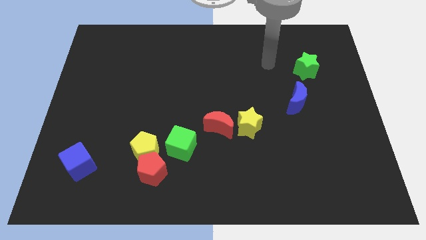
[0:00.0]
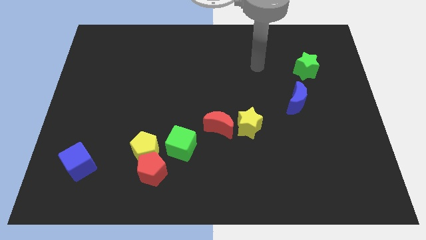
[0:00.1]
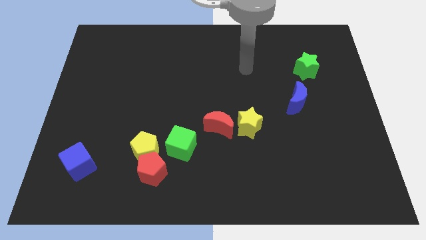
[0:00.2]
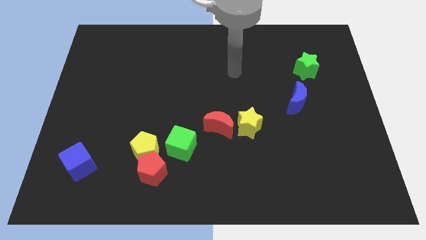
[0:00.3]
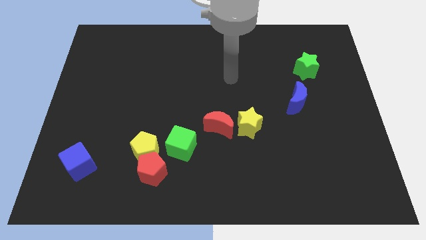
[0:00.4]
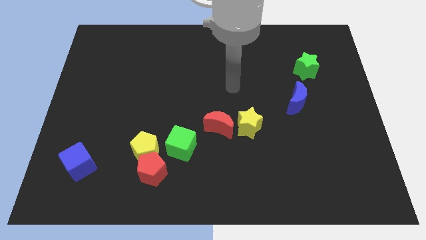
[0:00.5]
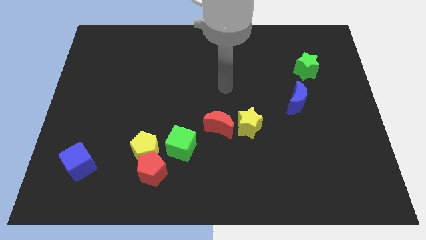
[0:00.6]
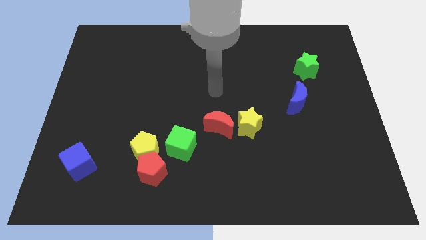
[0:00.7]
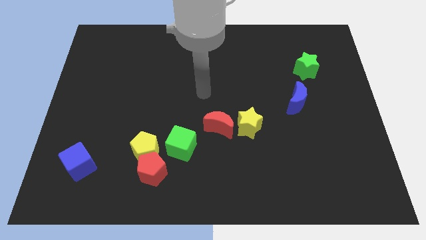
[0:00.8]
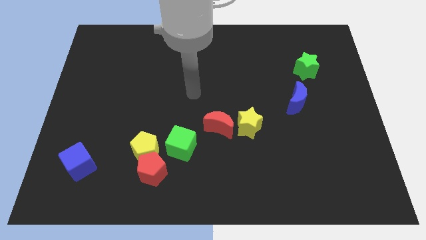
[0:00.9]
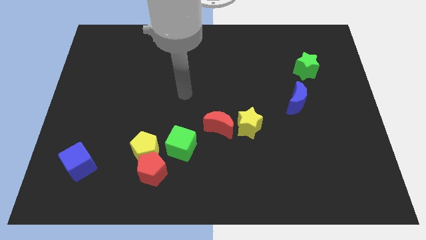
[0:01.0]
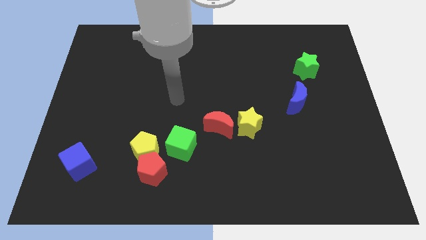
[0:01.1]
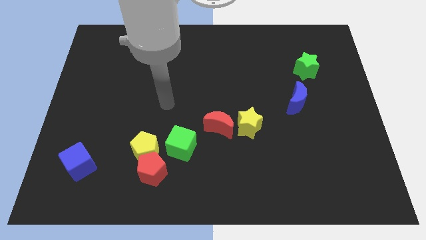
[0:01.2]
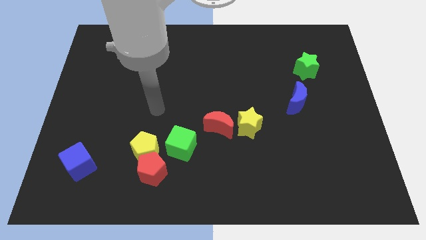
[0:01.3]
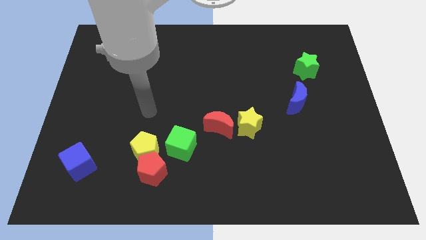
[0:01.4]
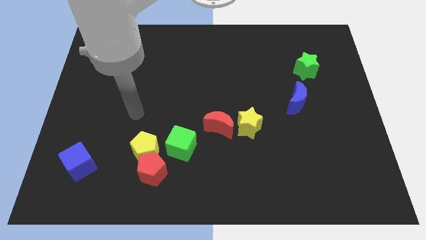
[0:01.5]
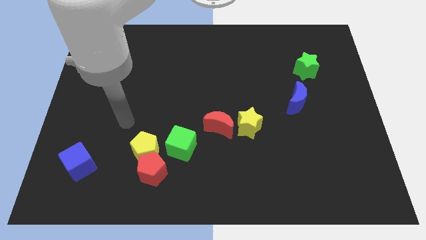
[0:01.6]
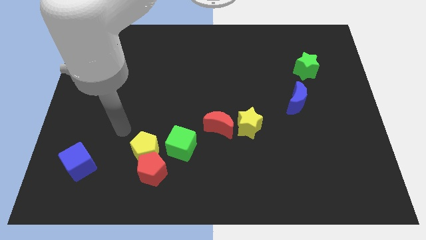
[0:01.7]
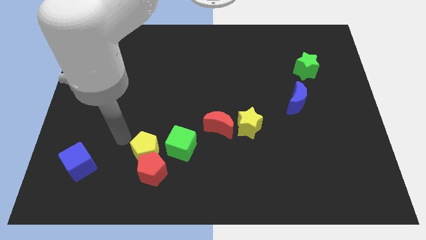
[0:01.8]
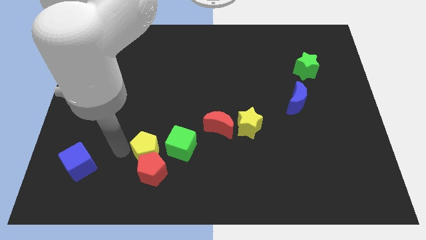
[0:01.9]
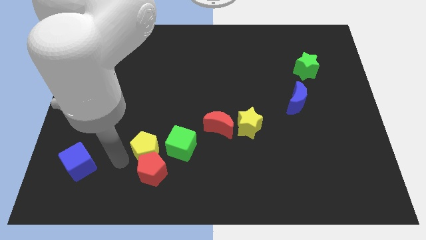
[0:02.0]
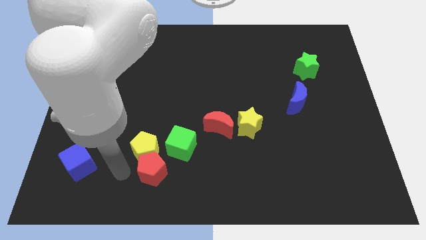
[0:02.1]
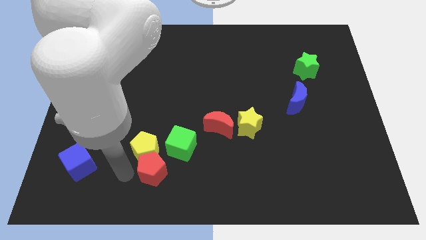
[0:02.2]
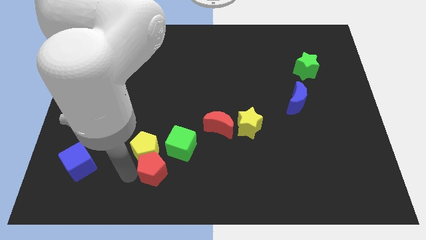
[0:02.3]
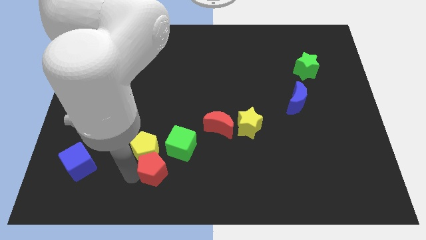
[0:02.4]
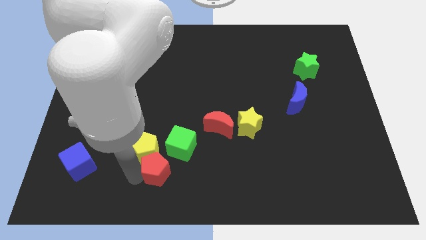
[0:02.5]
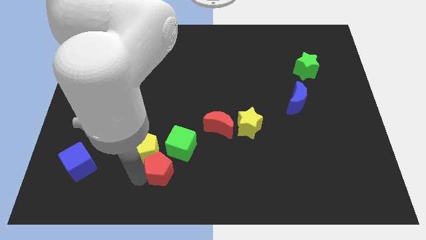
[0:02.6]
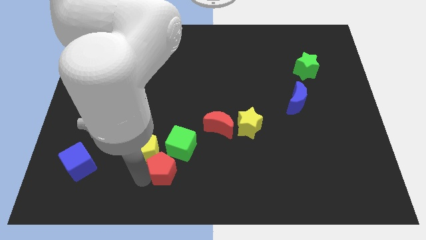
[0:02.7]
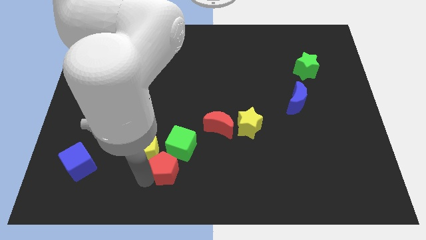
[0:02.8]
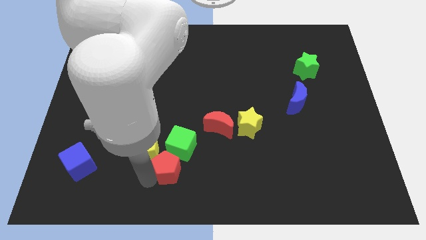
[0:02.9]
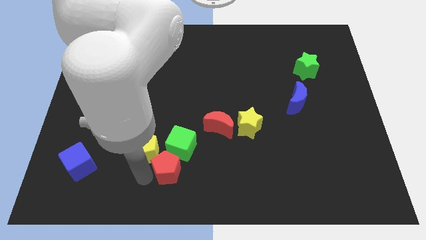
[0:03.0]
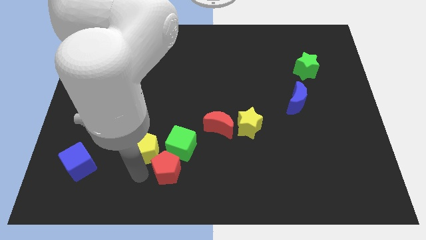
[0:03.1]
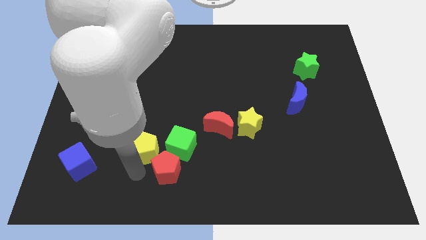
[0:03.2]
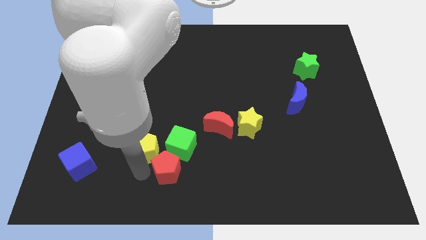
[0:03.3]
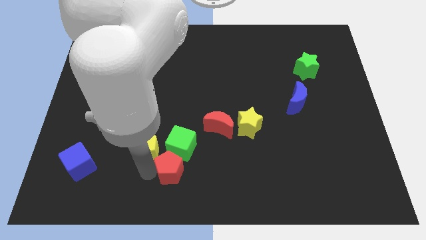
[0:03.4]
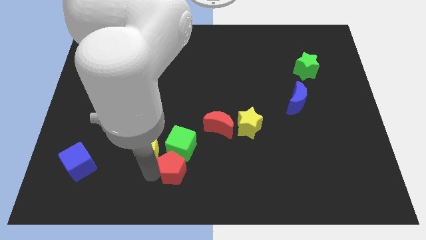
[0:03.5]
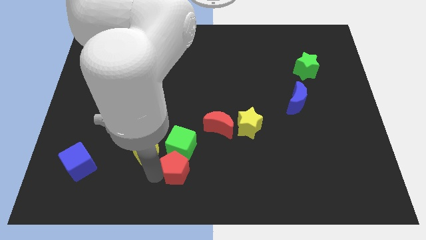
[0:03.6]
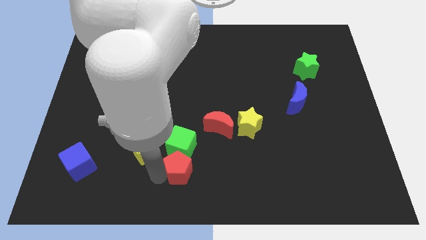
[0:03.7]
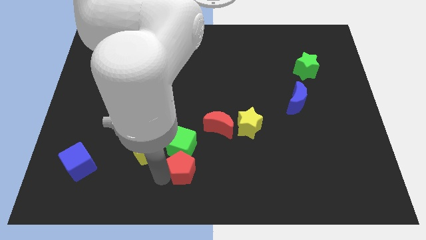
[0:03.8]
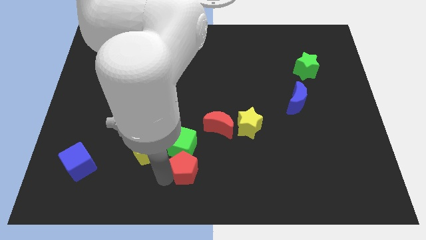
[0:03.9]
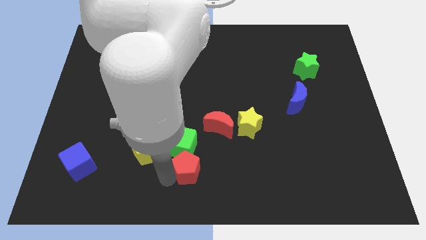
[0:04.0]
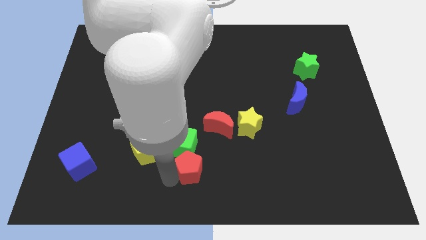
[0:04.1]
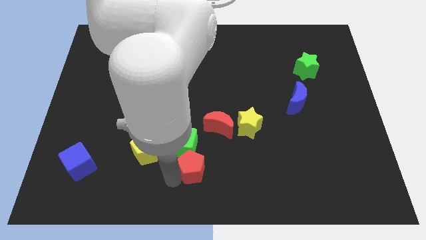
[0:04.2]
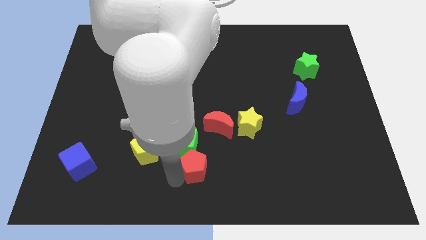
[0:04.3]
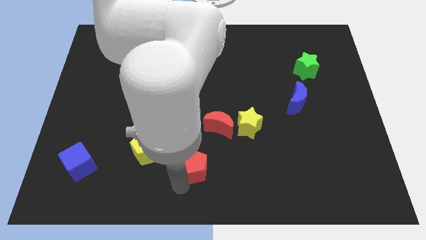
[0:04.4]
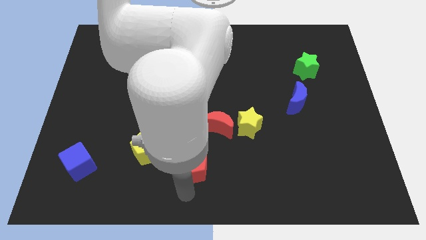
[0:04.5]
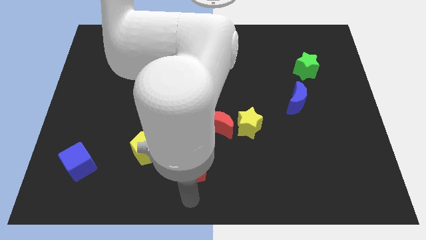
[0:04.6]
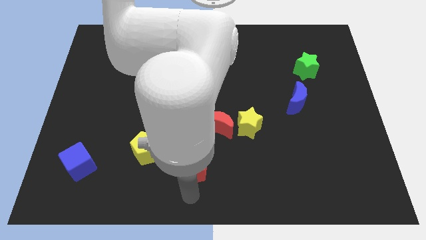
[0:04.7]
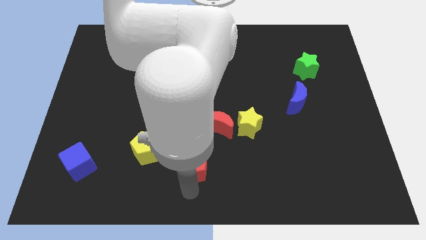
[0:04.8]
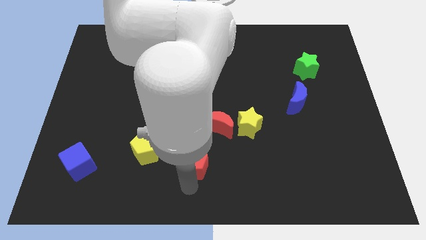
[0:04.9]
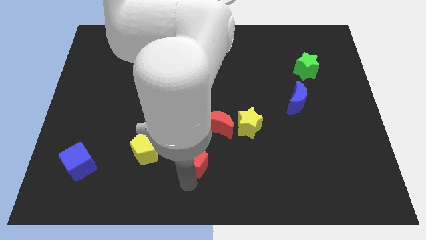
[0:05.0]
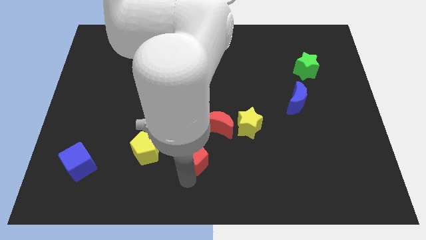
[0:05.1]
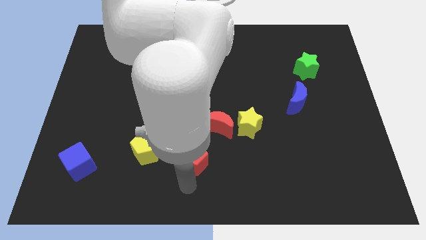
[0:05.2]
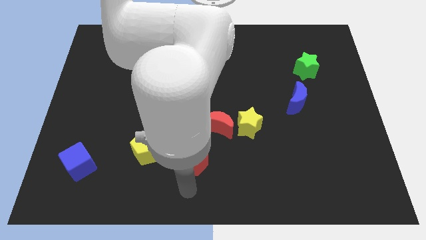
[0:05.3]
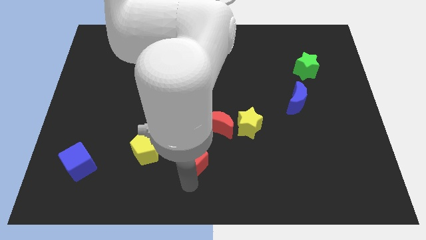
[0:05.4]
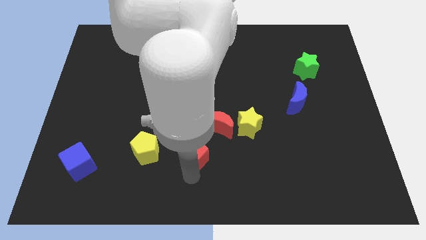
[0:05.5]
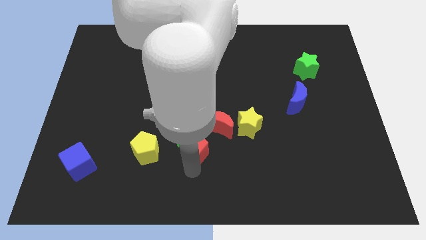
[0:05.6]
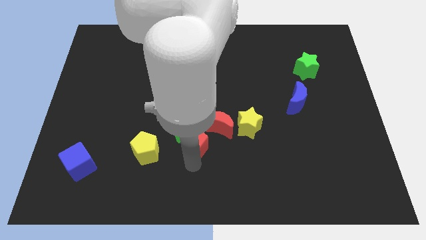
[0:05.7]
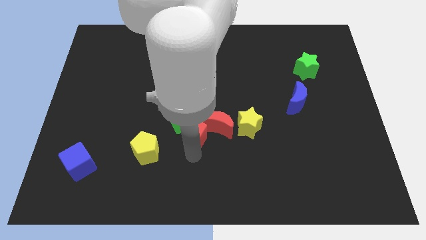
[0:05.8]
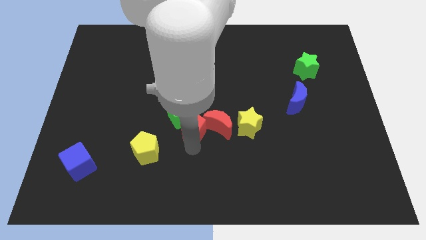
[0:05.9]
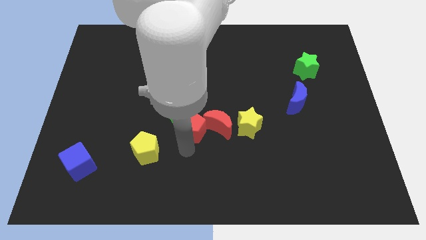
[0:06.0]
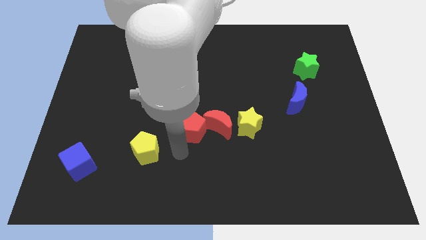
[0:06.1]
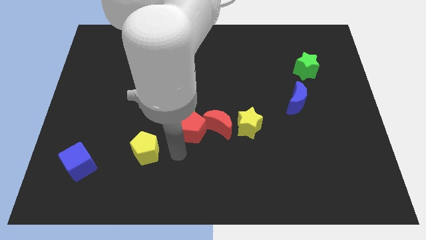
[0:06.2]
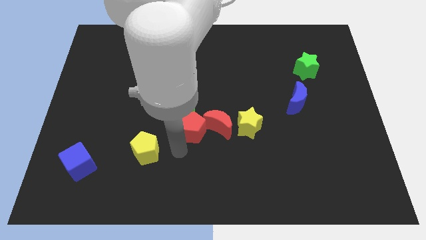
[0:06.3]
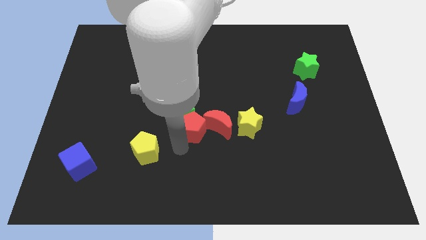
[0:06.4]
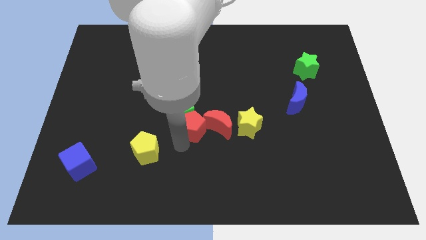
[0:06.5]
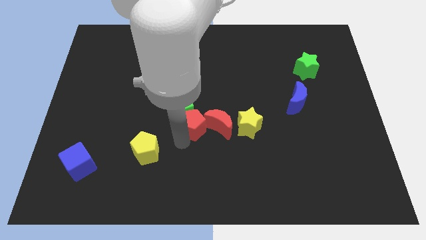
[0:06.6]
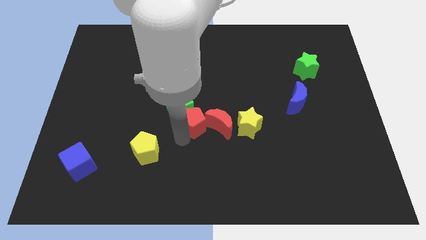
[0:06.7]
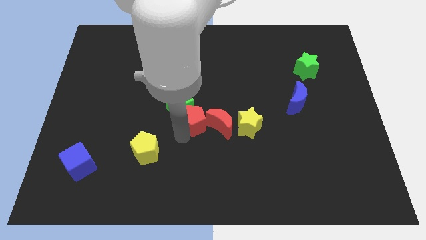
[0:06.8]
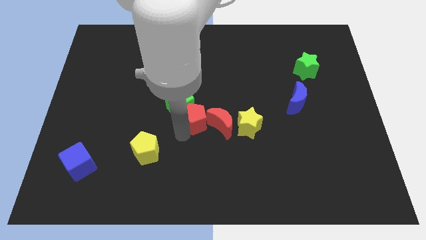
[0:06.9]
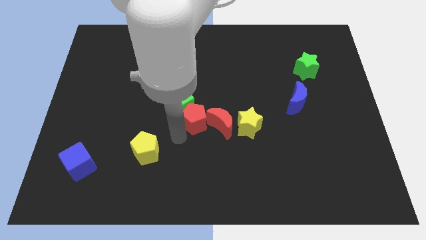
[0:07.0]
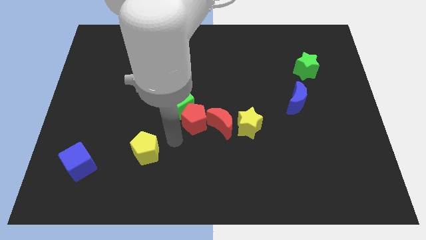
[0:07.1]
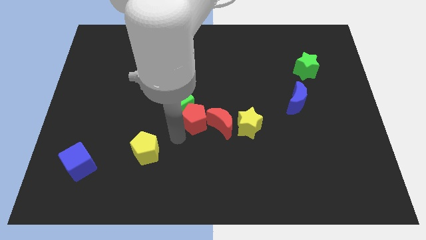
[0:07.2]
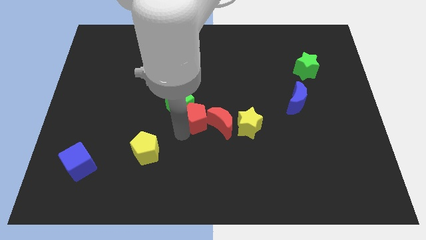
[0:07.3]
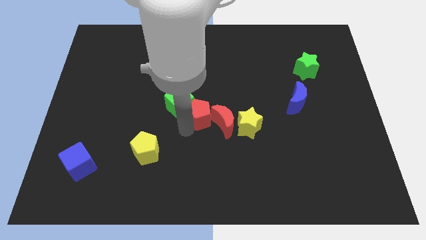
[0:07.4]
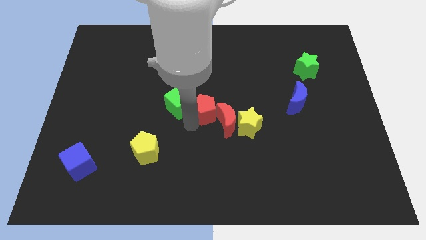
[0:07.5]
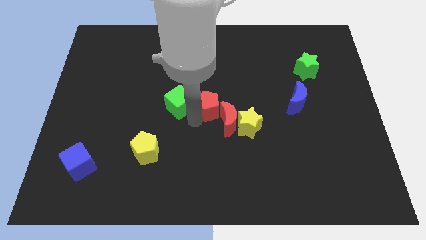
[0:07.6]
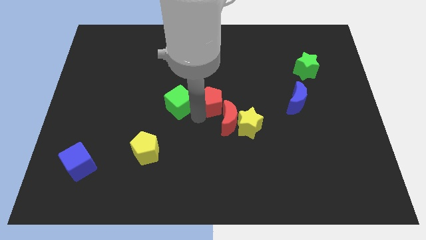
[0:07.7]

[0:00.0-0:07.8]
push the red pentagon upwards and to the right

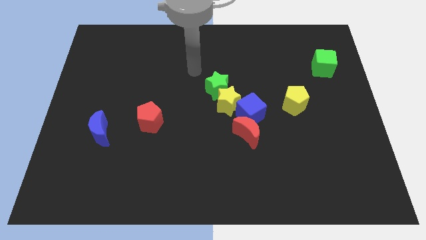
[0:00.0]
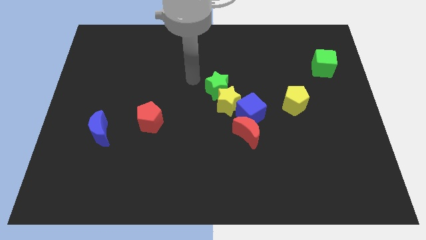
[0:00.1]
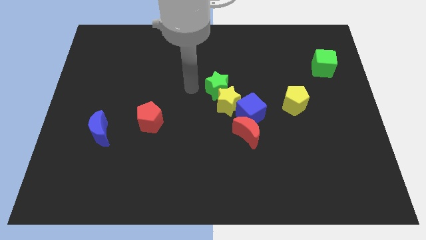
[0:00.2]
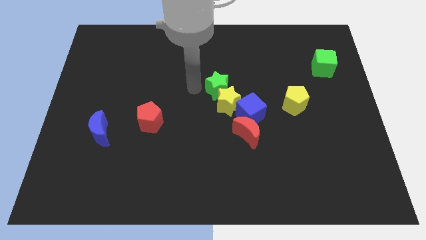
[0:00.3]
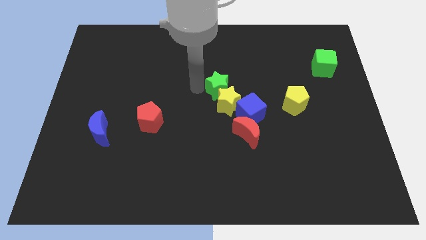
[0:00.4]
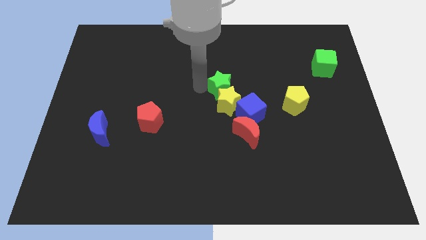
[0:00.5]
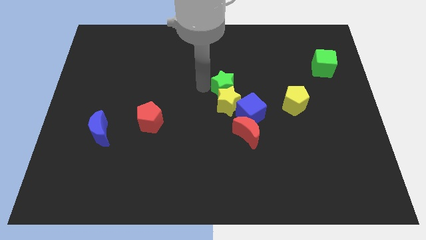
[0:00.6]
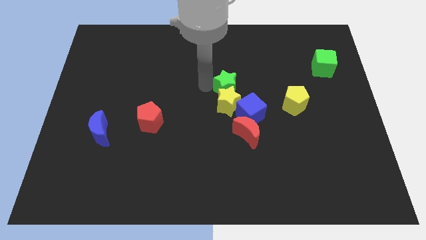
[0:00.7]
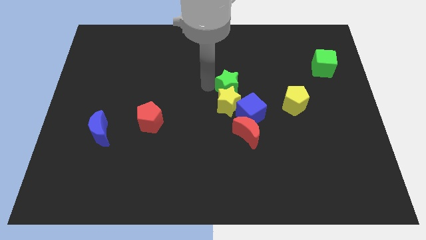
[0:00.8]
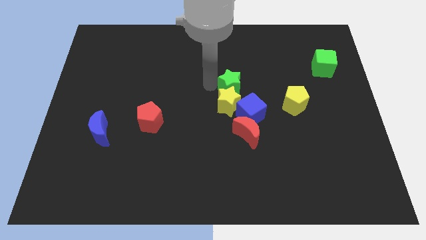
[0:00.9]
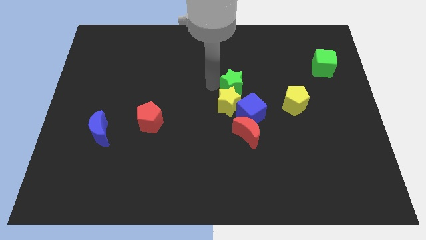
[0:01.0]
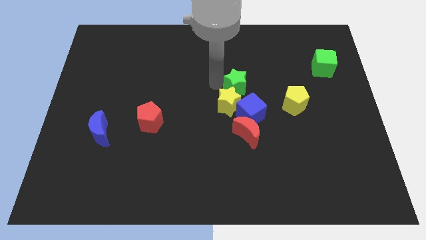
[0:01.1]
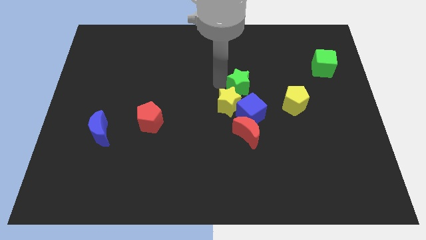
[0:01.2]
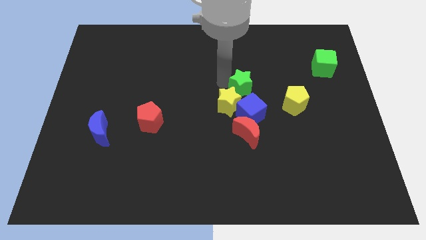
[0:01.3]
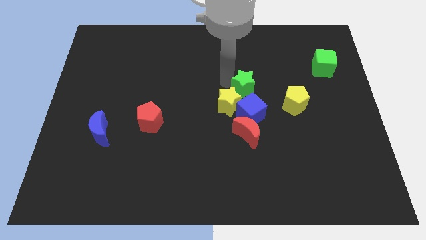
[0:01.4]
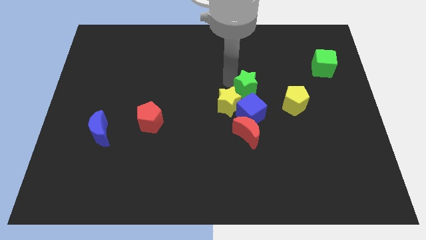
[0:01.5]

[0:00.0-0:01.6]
move the green star a little bit to the right
